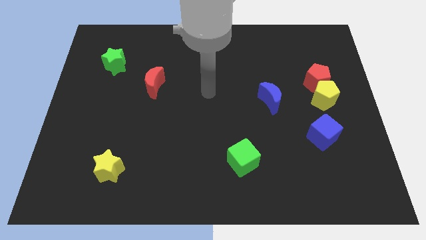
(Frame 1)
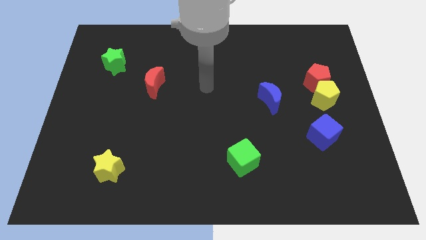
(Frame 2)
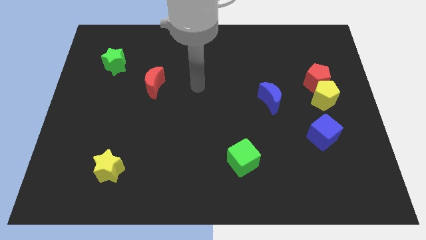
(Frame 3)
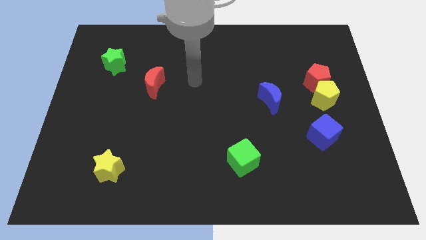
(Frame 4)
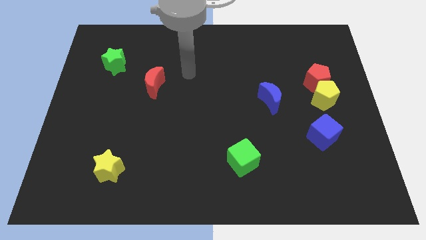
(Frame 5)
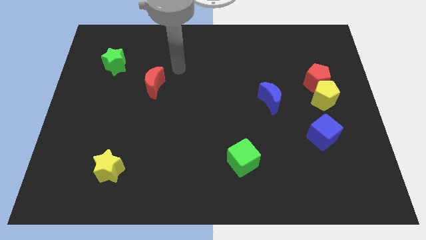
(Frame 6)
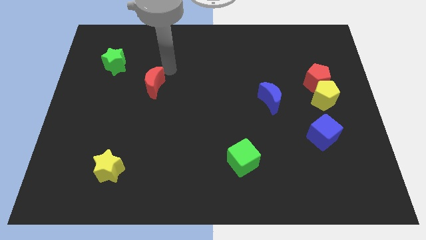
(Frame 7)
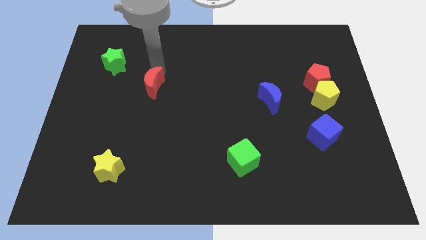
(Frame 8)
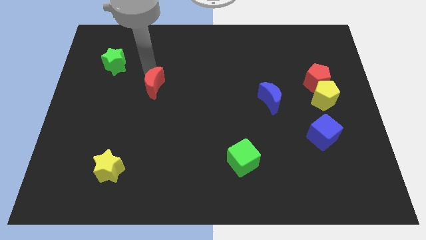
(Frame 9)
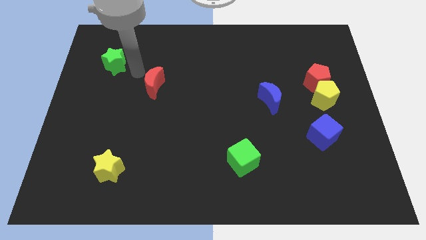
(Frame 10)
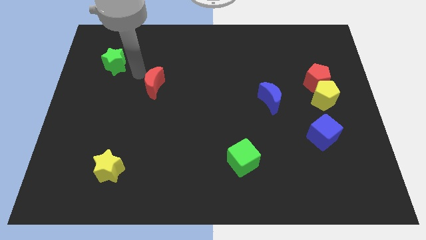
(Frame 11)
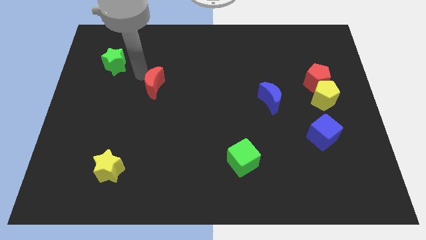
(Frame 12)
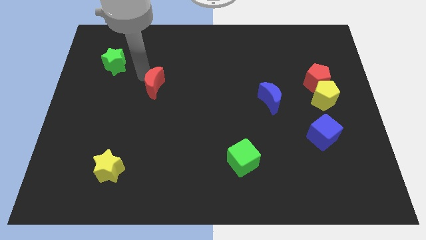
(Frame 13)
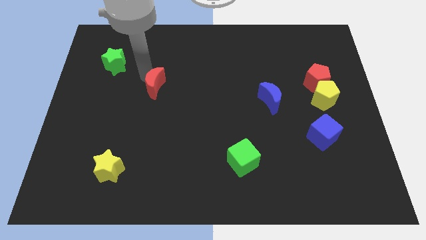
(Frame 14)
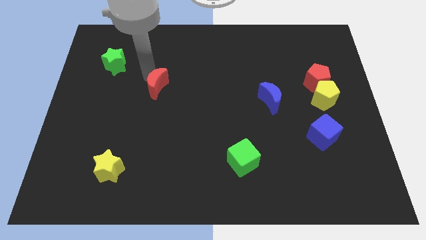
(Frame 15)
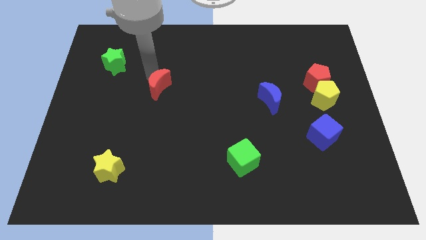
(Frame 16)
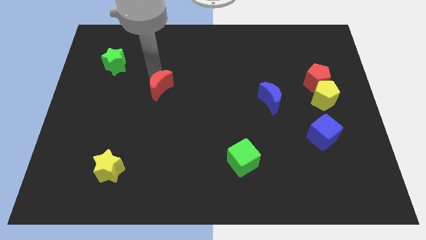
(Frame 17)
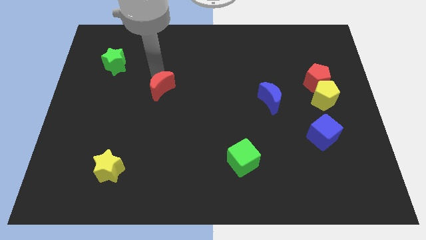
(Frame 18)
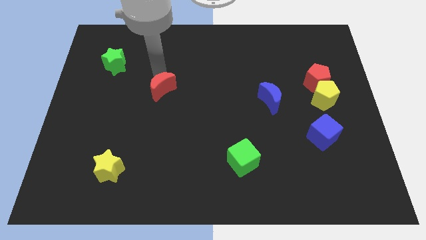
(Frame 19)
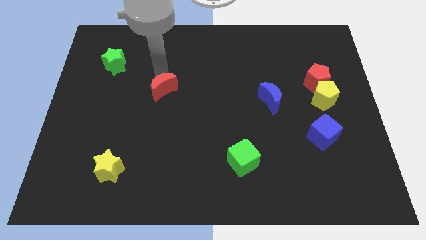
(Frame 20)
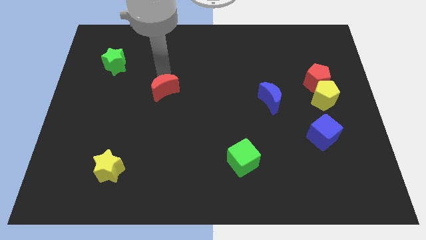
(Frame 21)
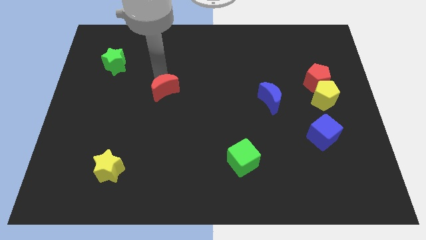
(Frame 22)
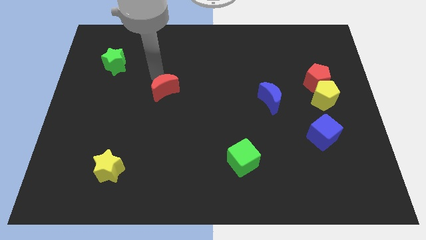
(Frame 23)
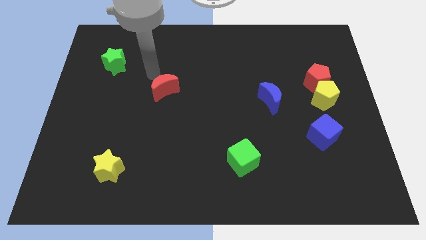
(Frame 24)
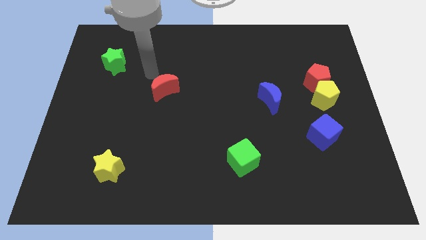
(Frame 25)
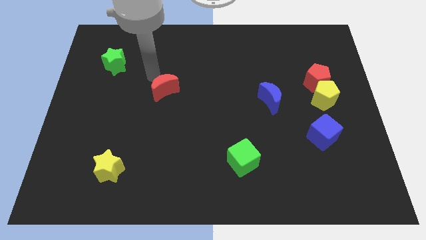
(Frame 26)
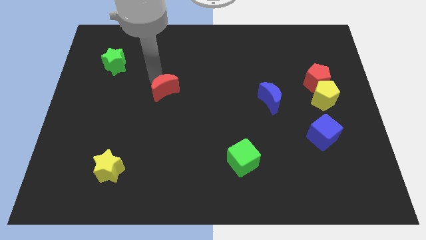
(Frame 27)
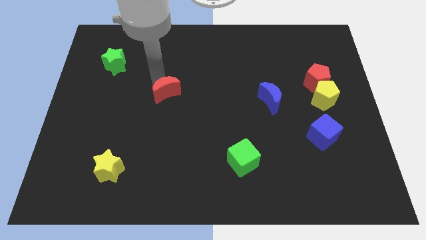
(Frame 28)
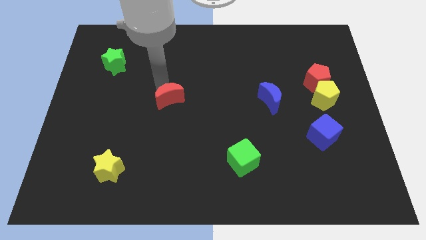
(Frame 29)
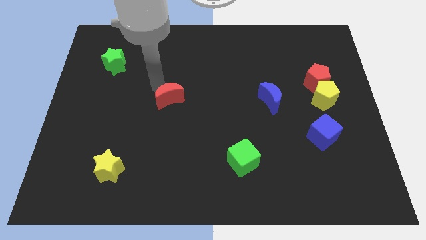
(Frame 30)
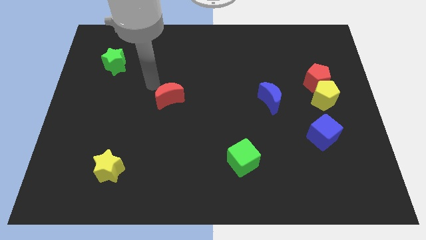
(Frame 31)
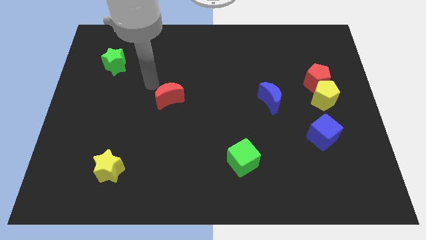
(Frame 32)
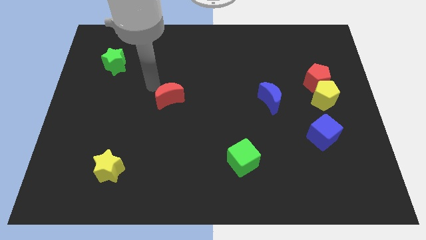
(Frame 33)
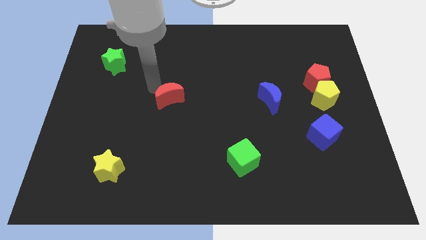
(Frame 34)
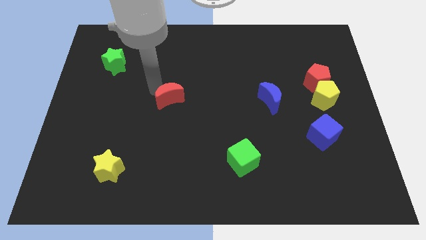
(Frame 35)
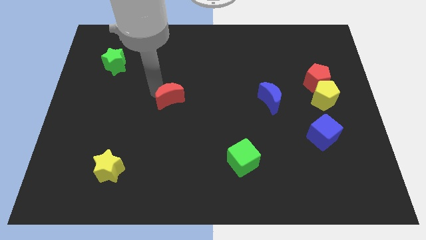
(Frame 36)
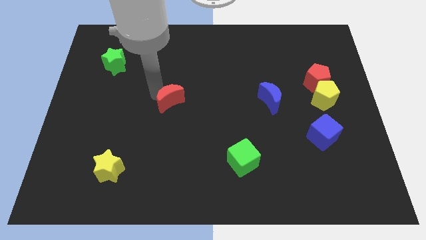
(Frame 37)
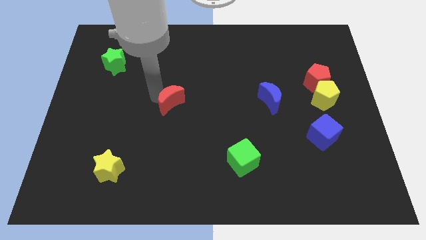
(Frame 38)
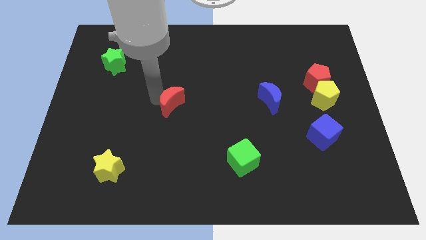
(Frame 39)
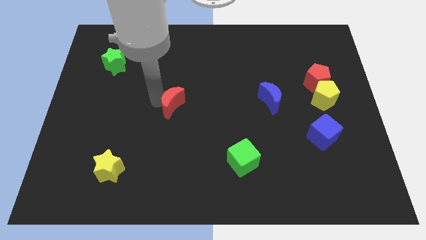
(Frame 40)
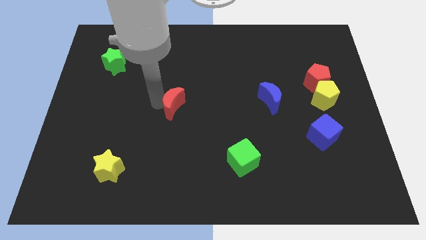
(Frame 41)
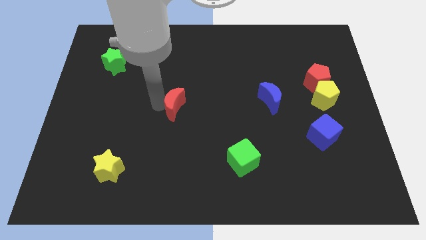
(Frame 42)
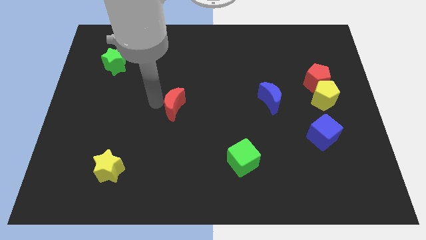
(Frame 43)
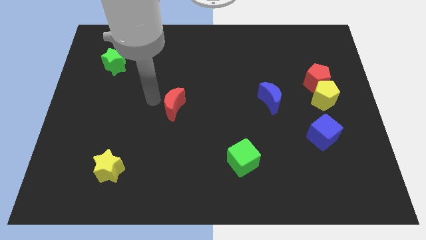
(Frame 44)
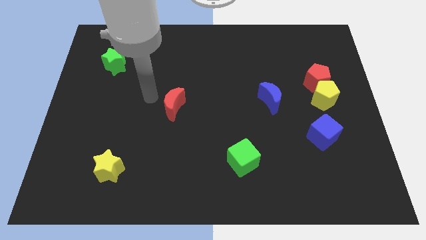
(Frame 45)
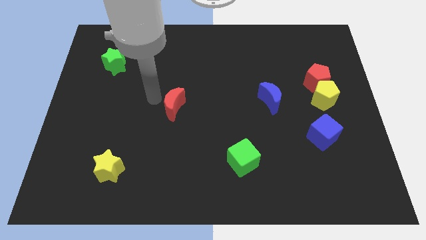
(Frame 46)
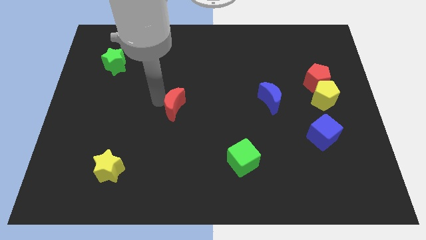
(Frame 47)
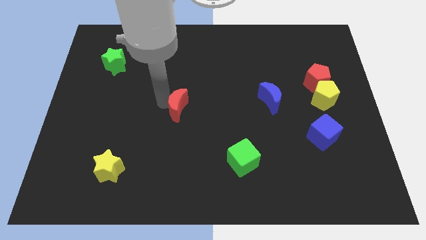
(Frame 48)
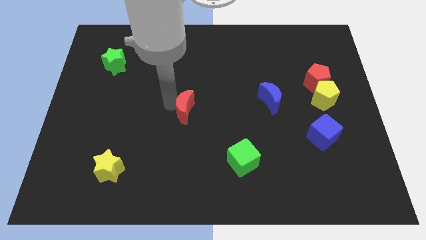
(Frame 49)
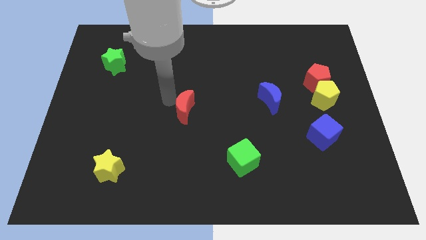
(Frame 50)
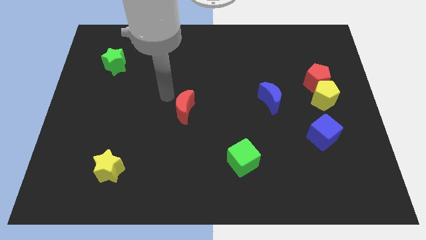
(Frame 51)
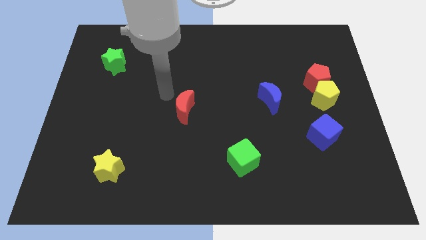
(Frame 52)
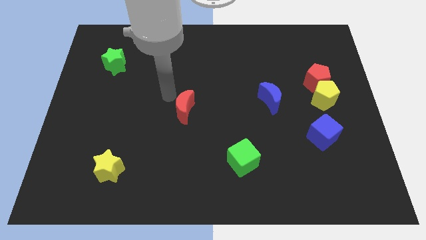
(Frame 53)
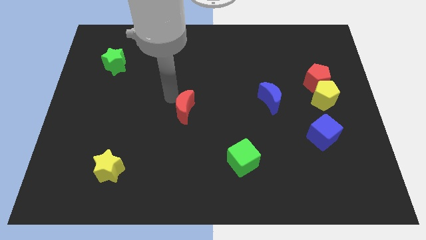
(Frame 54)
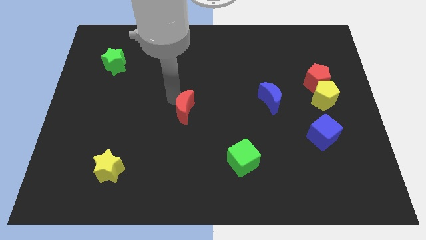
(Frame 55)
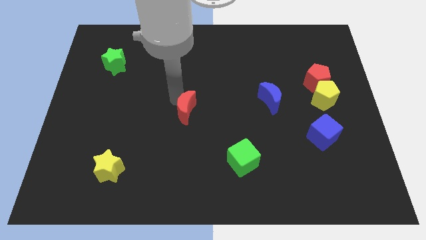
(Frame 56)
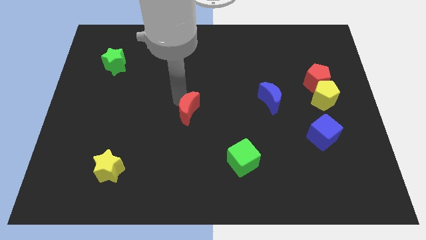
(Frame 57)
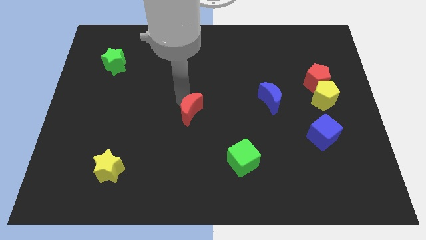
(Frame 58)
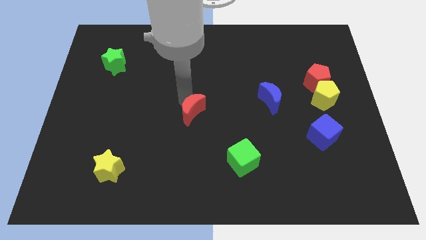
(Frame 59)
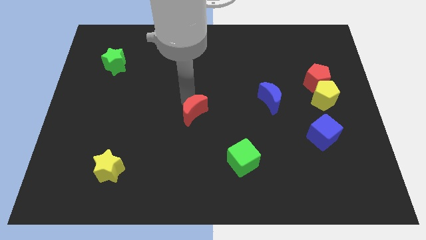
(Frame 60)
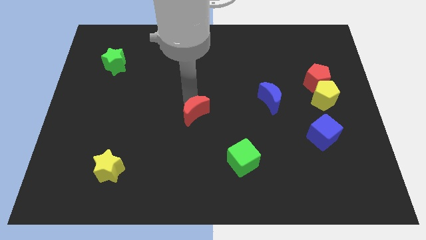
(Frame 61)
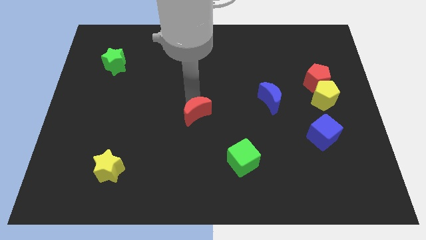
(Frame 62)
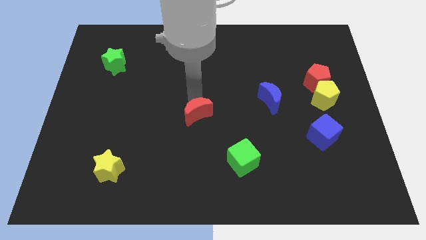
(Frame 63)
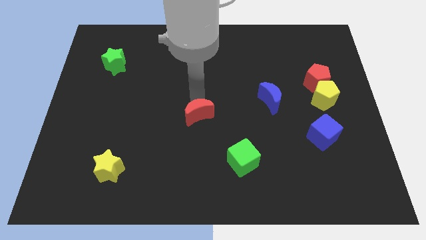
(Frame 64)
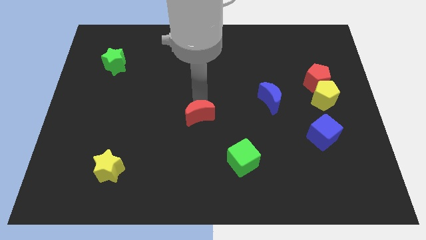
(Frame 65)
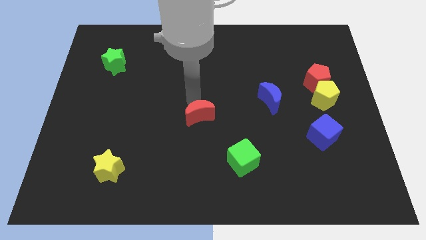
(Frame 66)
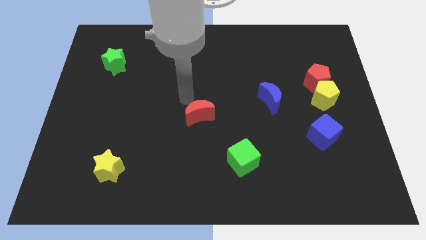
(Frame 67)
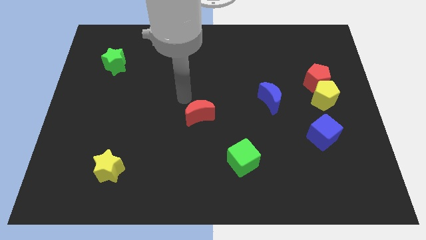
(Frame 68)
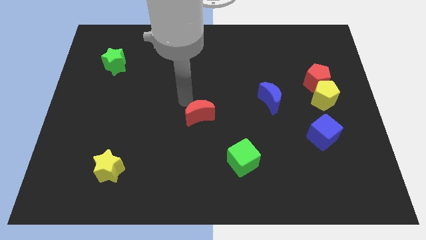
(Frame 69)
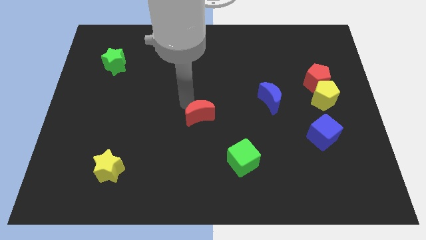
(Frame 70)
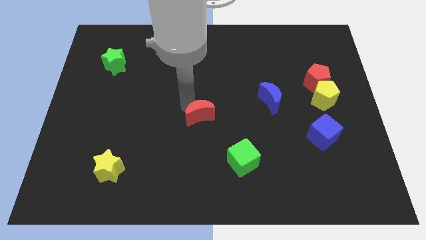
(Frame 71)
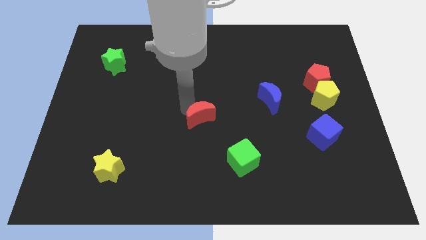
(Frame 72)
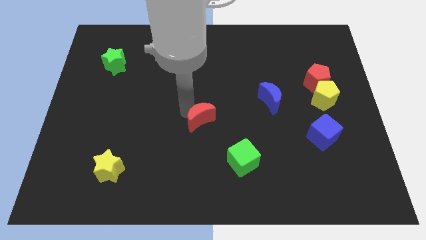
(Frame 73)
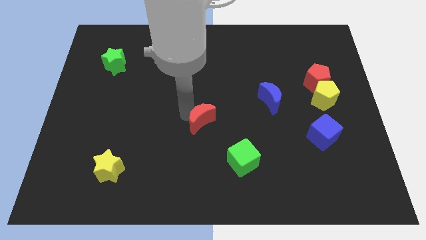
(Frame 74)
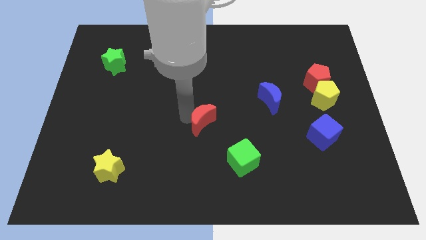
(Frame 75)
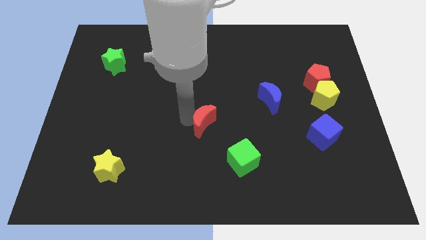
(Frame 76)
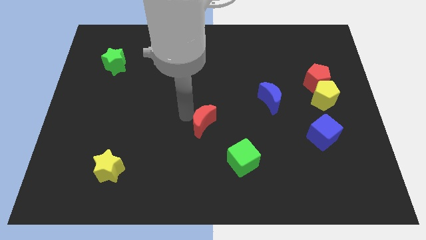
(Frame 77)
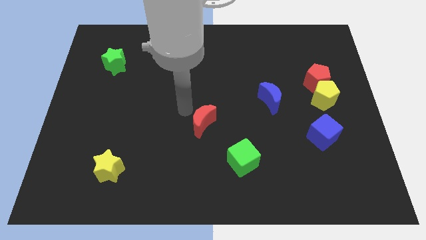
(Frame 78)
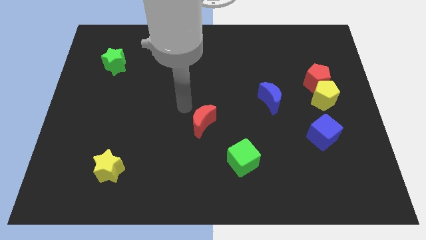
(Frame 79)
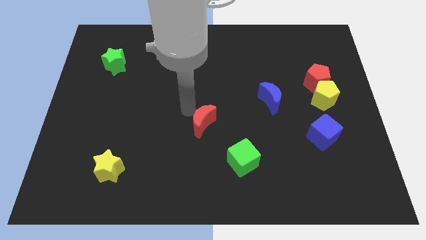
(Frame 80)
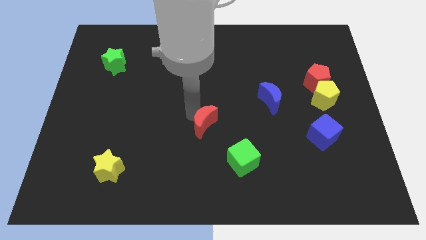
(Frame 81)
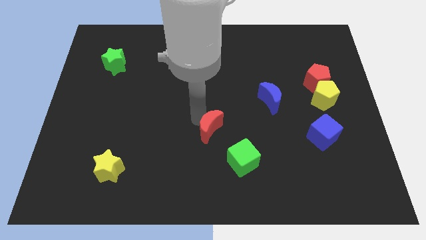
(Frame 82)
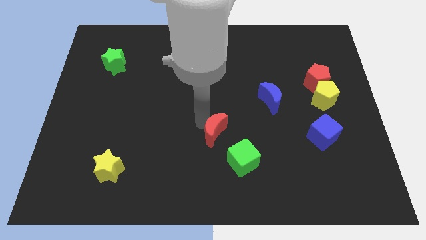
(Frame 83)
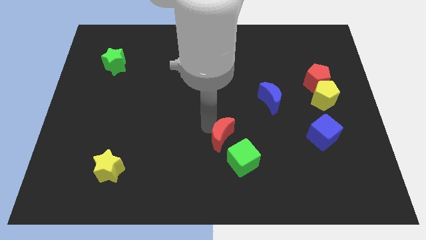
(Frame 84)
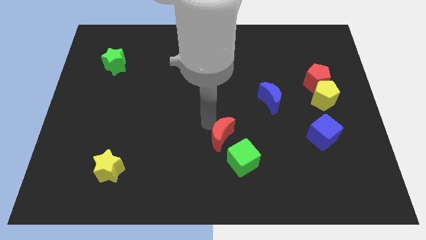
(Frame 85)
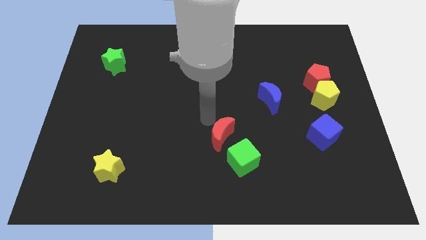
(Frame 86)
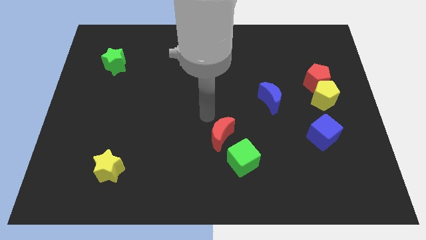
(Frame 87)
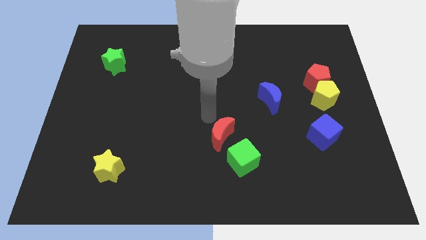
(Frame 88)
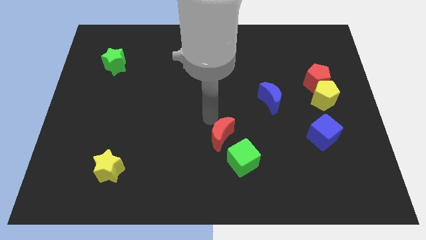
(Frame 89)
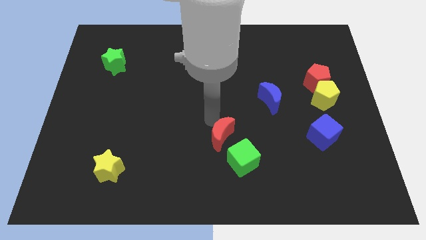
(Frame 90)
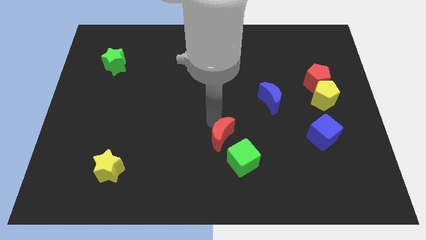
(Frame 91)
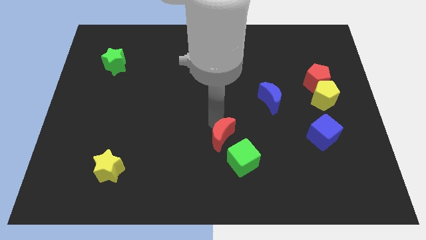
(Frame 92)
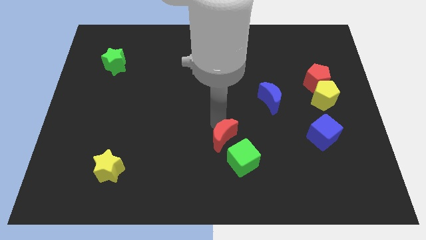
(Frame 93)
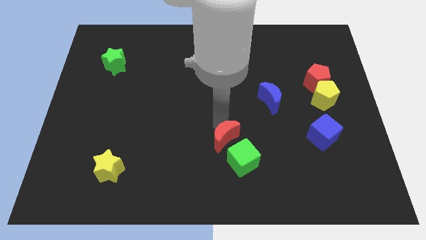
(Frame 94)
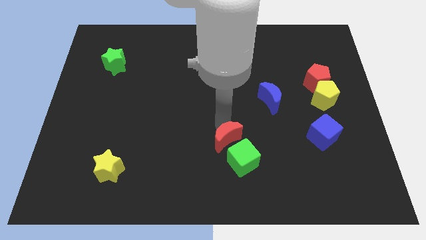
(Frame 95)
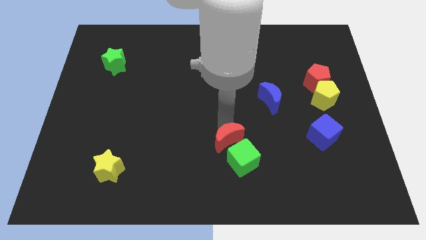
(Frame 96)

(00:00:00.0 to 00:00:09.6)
push the red moon close to the green cube
